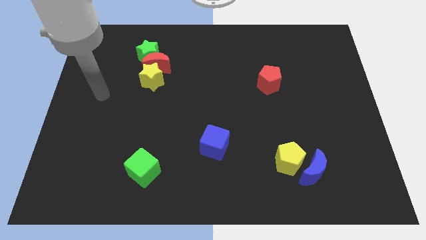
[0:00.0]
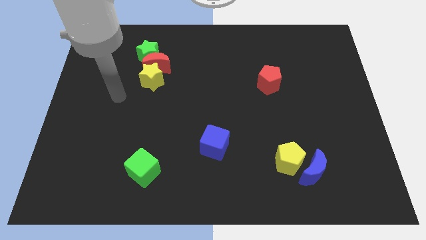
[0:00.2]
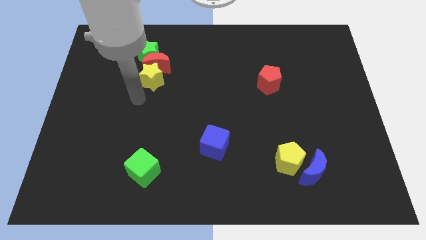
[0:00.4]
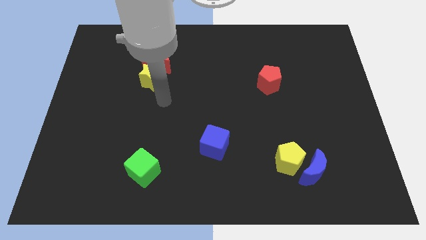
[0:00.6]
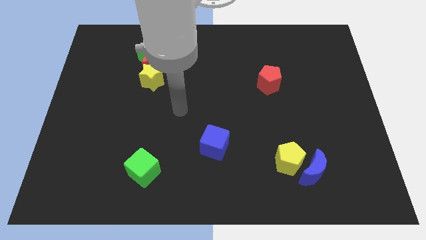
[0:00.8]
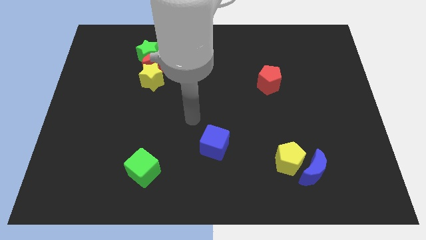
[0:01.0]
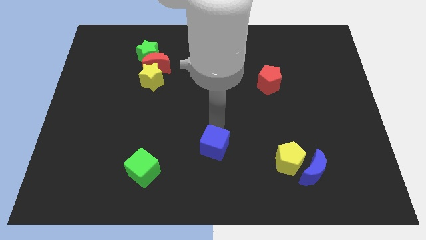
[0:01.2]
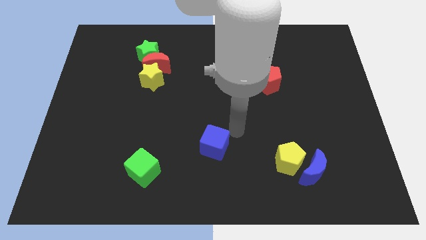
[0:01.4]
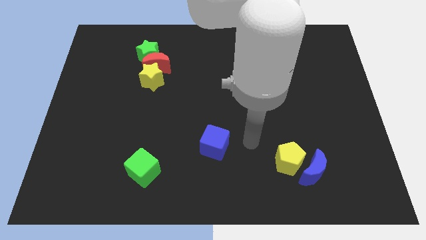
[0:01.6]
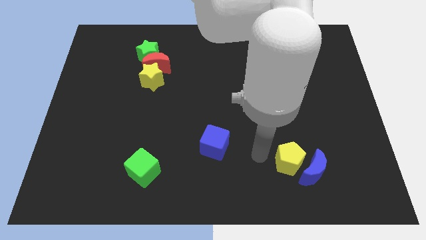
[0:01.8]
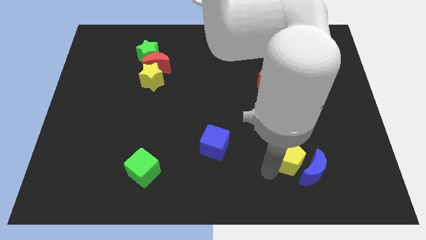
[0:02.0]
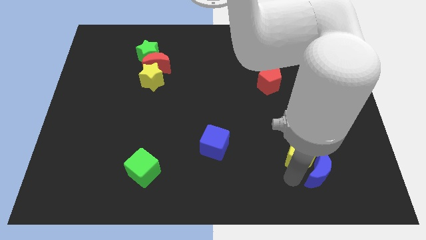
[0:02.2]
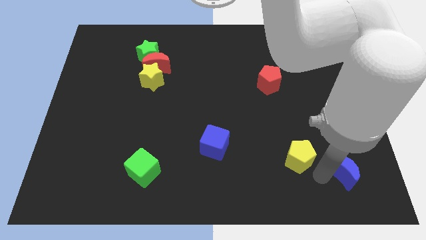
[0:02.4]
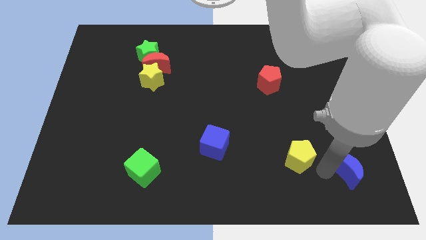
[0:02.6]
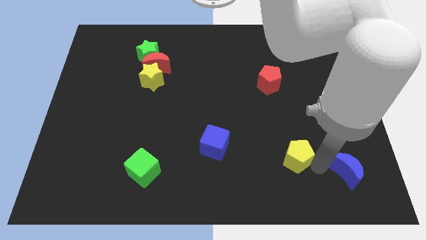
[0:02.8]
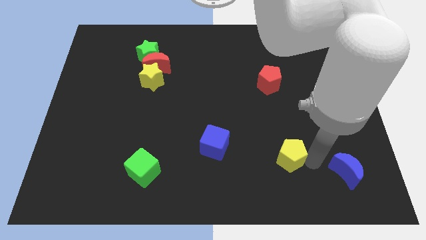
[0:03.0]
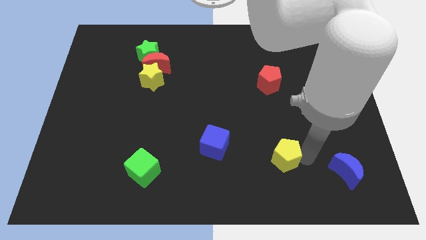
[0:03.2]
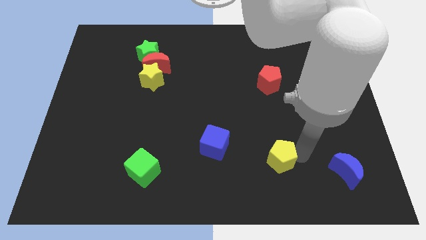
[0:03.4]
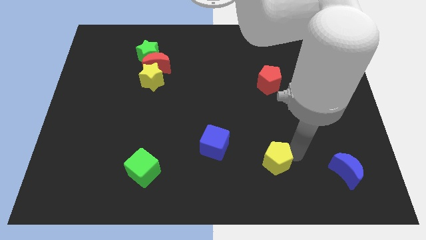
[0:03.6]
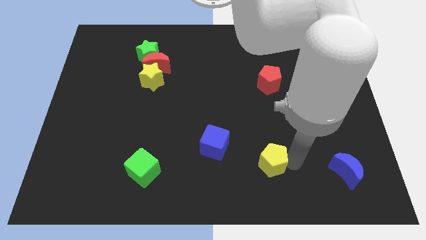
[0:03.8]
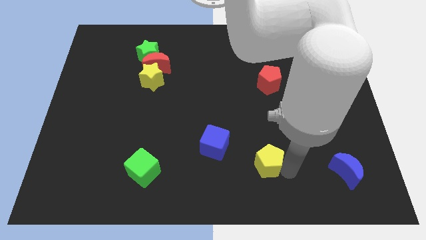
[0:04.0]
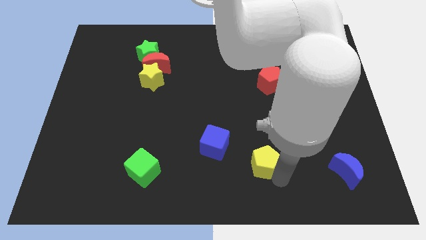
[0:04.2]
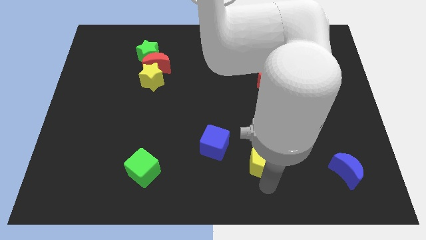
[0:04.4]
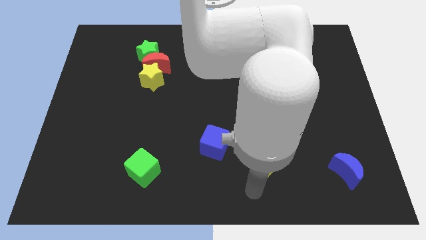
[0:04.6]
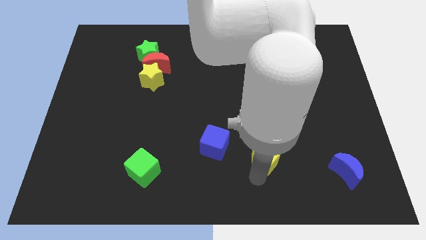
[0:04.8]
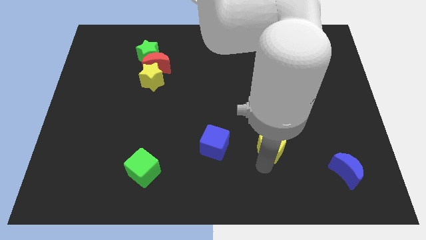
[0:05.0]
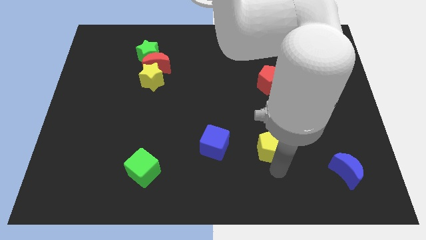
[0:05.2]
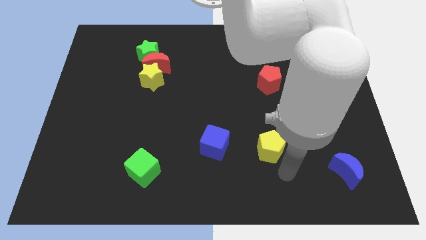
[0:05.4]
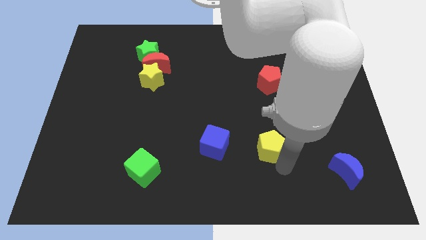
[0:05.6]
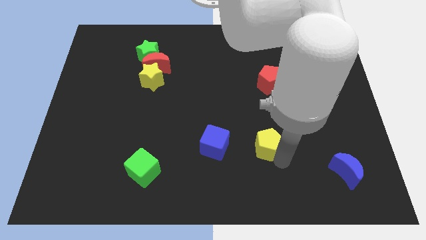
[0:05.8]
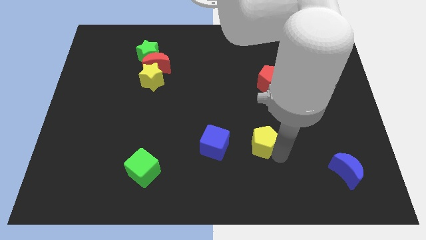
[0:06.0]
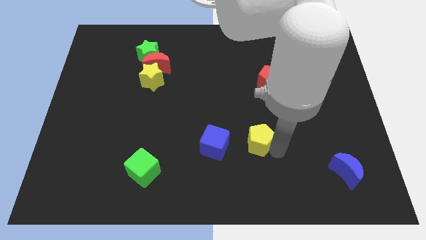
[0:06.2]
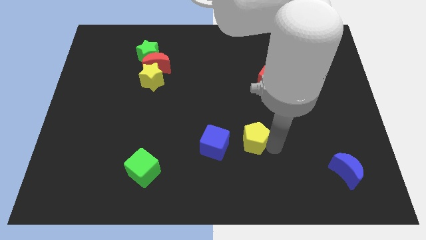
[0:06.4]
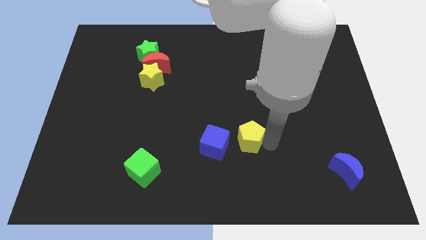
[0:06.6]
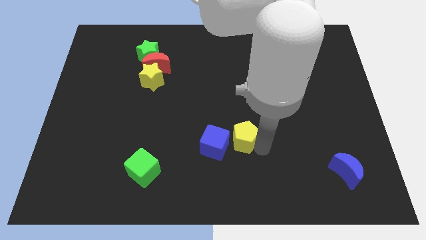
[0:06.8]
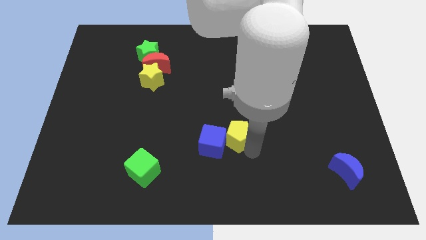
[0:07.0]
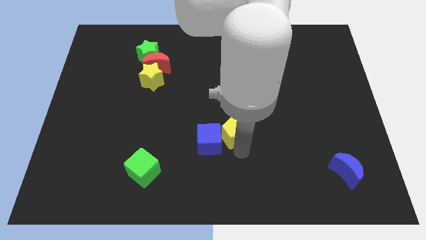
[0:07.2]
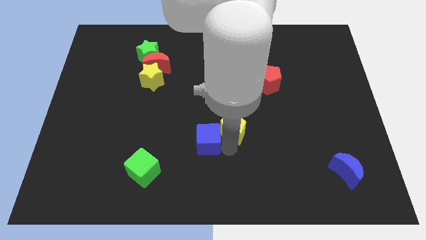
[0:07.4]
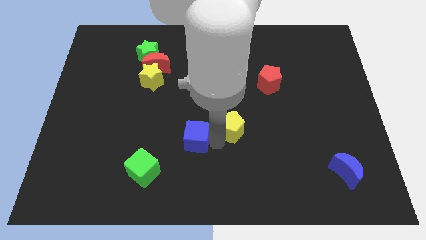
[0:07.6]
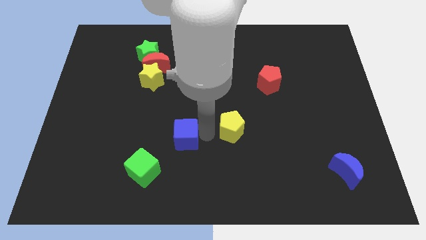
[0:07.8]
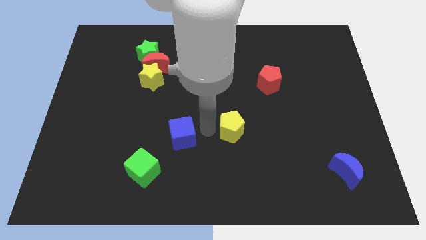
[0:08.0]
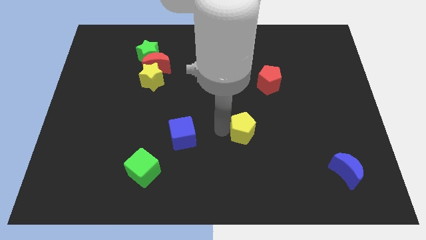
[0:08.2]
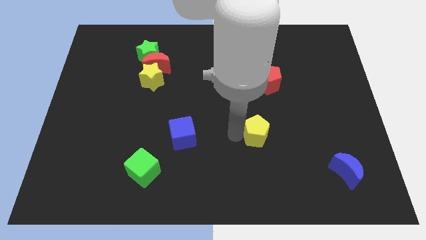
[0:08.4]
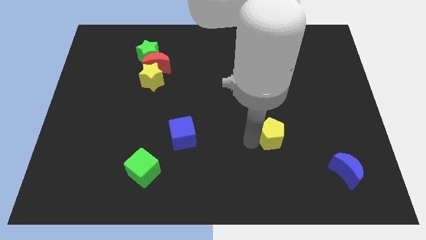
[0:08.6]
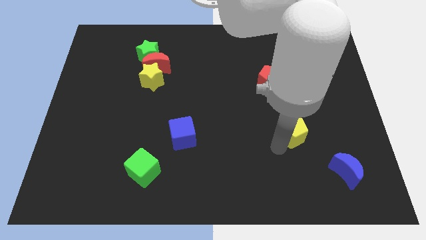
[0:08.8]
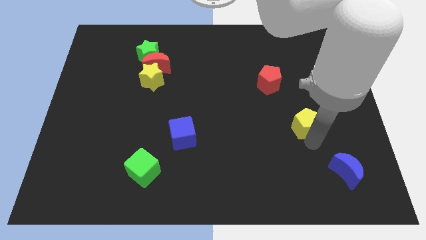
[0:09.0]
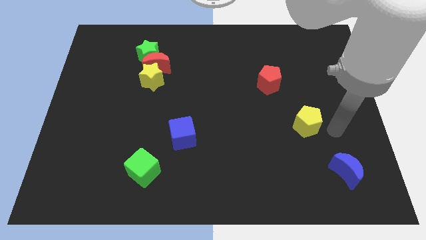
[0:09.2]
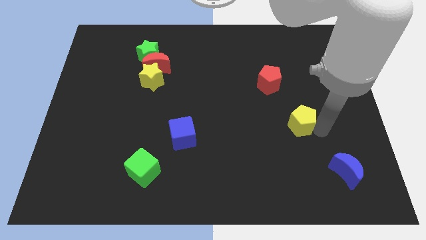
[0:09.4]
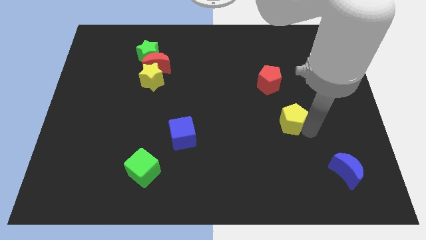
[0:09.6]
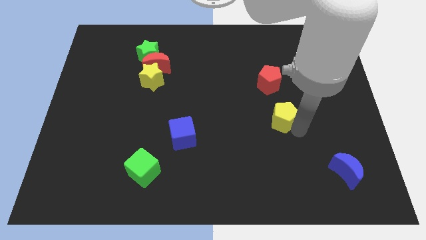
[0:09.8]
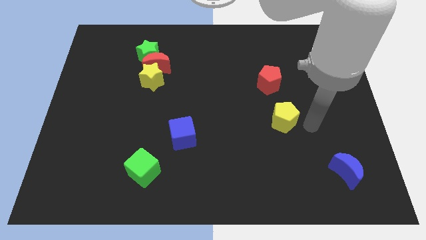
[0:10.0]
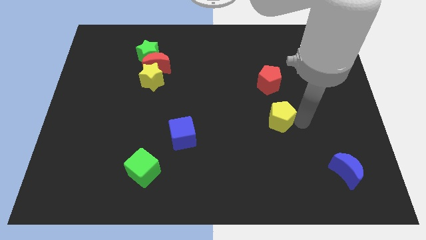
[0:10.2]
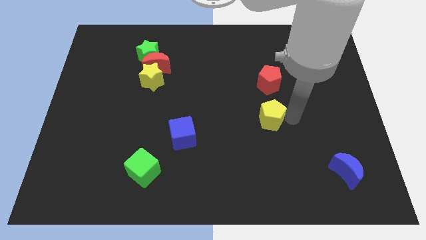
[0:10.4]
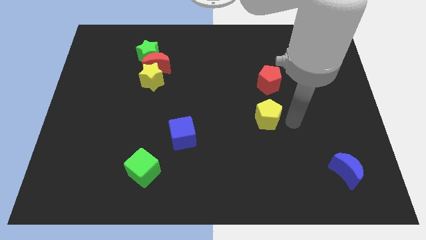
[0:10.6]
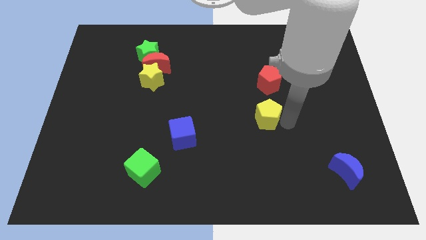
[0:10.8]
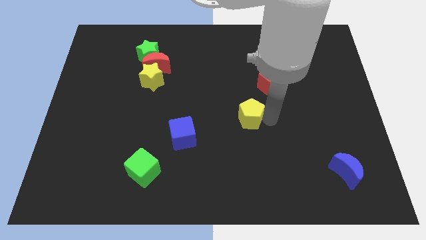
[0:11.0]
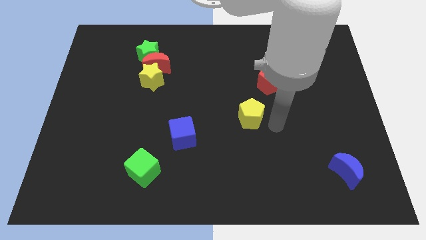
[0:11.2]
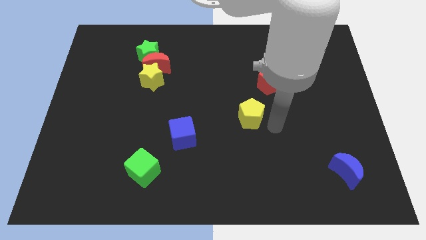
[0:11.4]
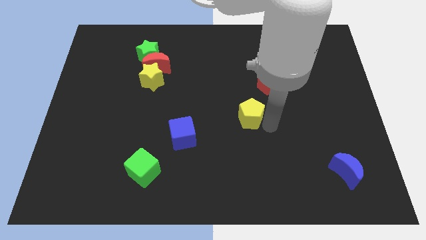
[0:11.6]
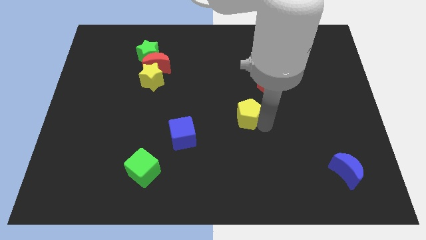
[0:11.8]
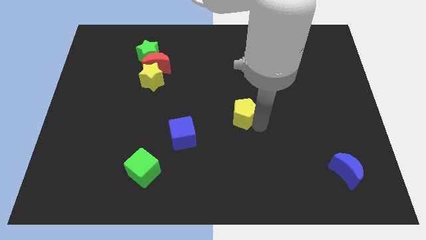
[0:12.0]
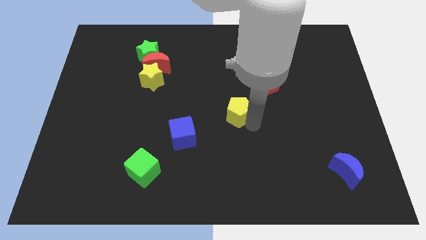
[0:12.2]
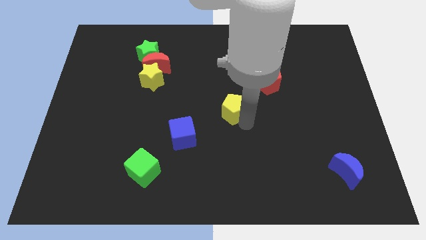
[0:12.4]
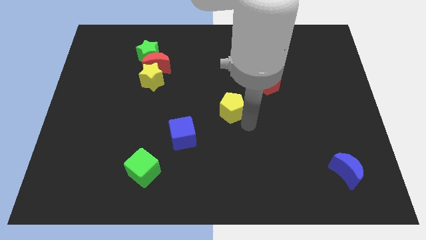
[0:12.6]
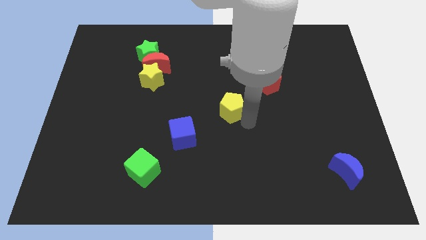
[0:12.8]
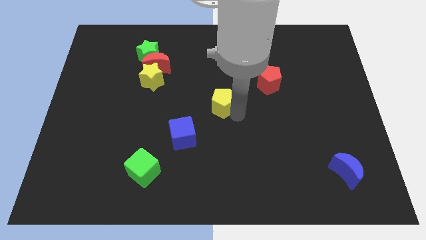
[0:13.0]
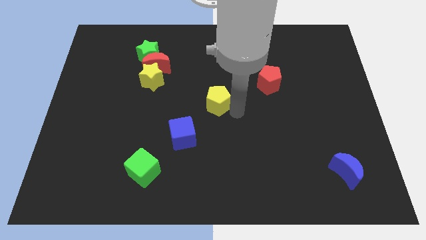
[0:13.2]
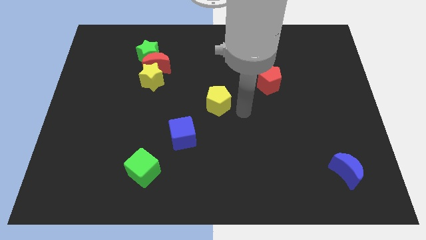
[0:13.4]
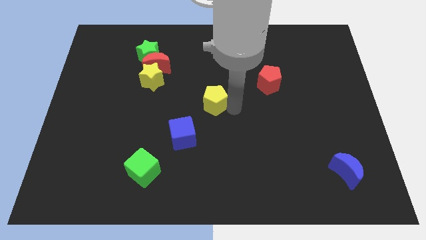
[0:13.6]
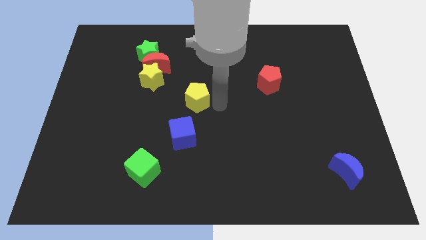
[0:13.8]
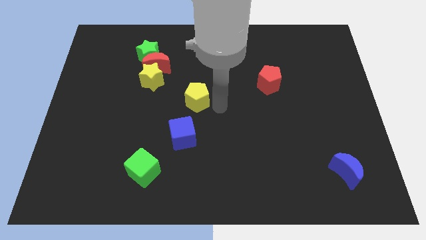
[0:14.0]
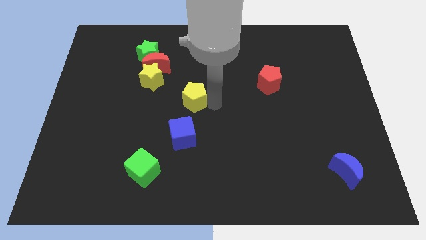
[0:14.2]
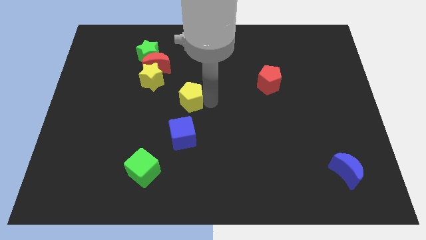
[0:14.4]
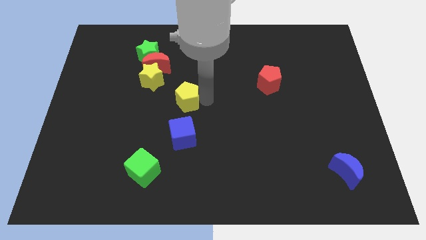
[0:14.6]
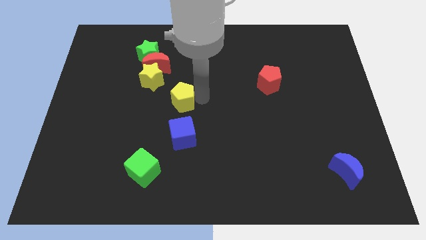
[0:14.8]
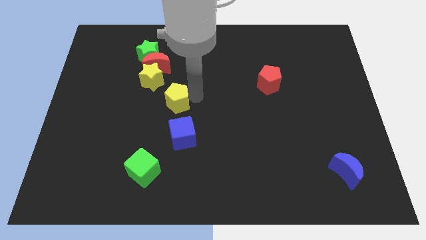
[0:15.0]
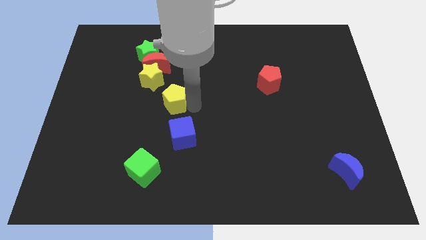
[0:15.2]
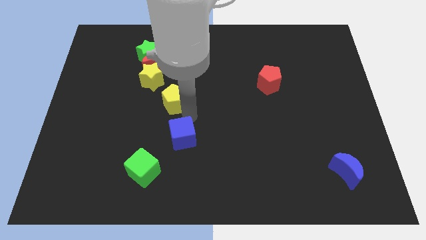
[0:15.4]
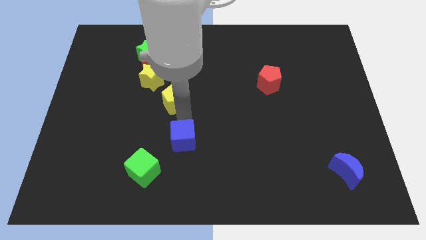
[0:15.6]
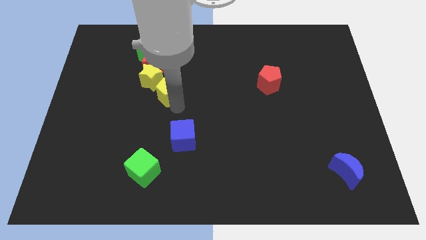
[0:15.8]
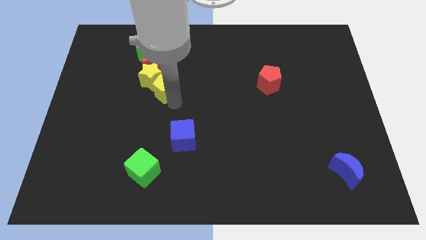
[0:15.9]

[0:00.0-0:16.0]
move the yellow pentagon close to the yellow star
